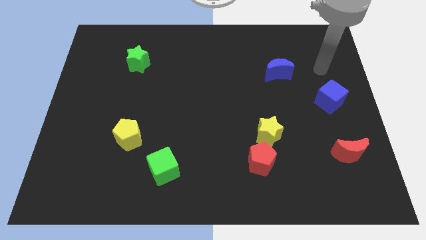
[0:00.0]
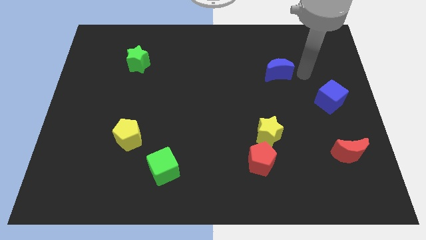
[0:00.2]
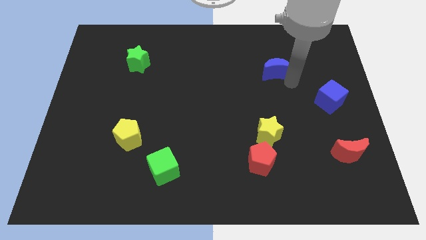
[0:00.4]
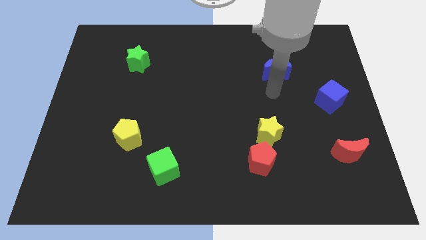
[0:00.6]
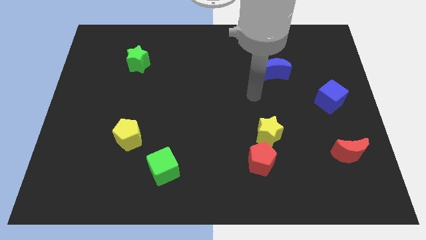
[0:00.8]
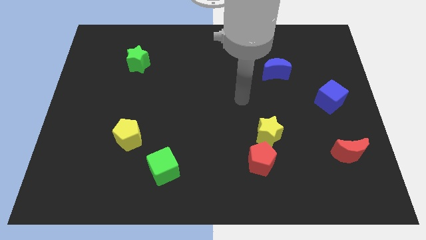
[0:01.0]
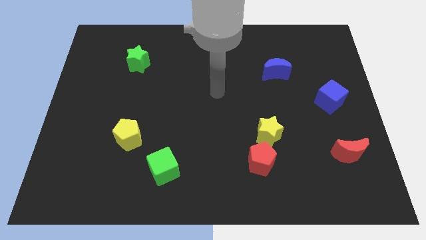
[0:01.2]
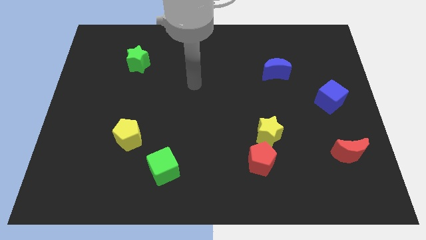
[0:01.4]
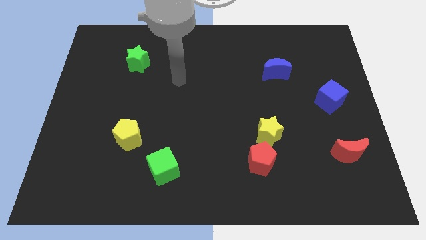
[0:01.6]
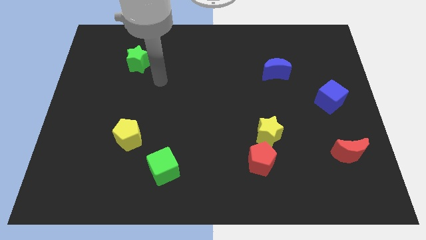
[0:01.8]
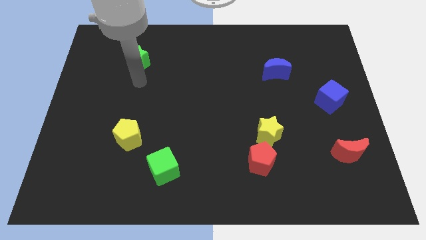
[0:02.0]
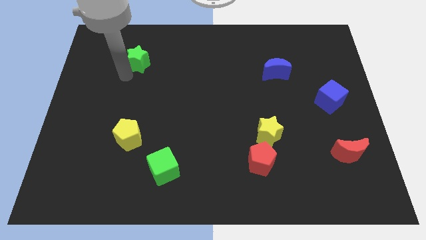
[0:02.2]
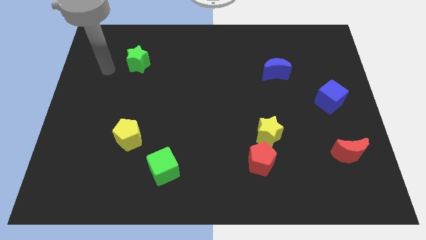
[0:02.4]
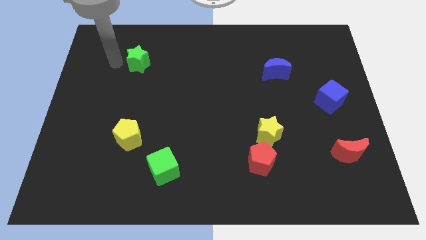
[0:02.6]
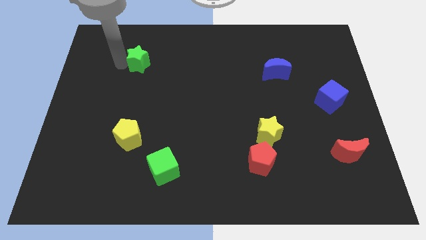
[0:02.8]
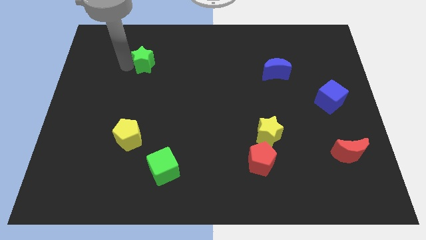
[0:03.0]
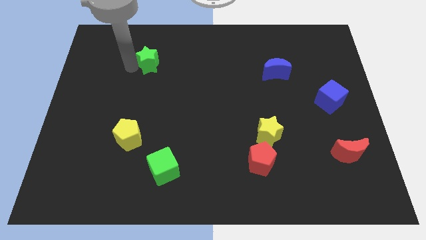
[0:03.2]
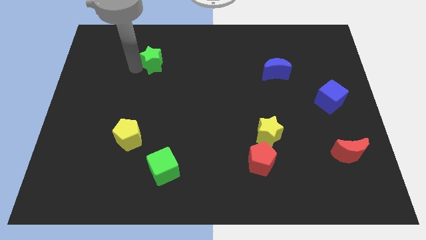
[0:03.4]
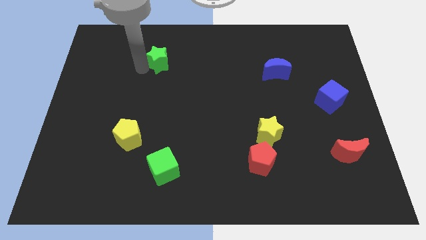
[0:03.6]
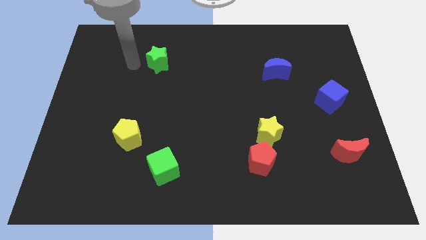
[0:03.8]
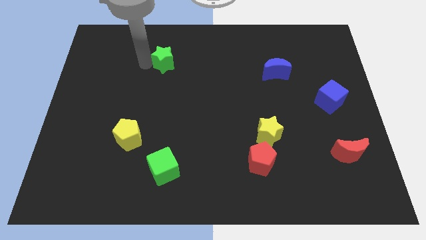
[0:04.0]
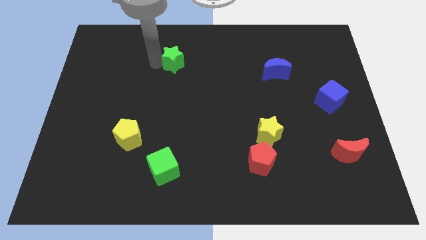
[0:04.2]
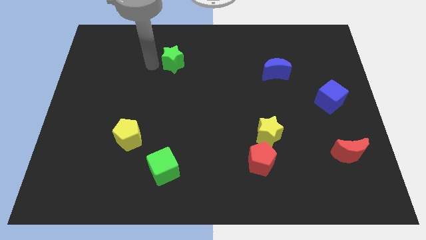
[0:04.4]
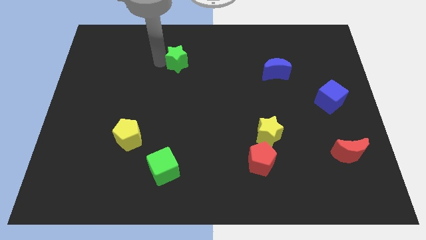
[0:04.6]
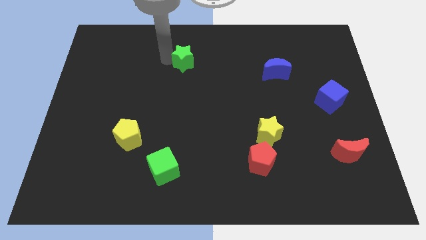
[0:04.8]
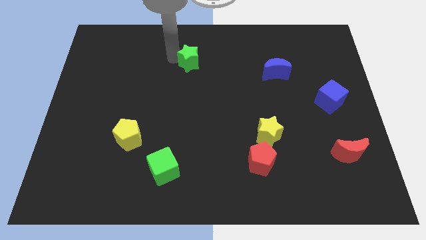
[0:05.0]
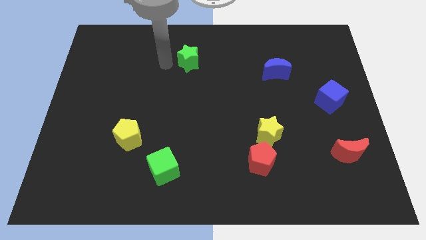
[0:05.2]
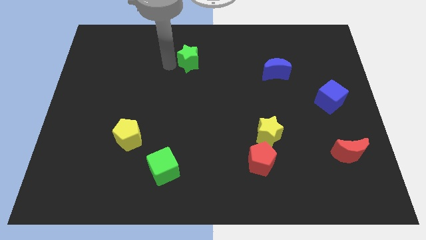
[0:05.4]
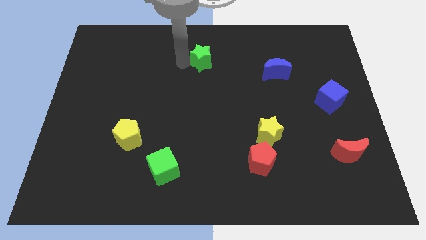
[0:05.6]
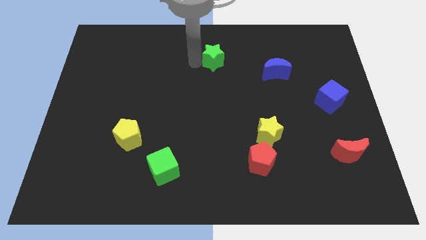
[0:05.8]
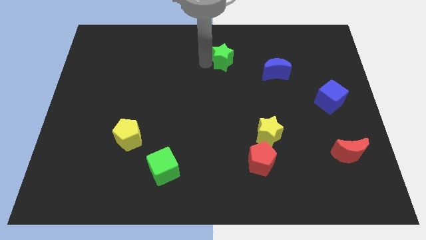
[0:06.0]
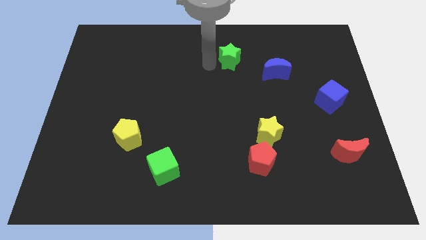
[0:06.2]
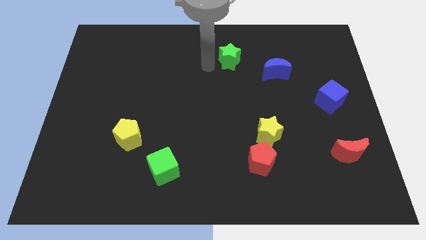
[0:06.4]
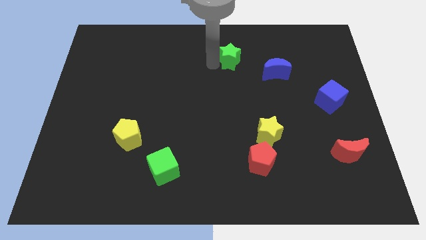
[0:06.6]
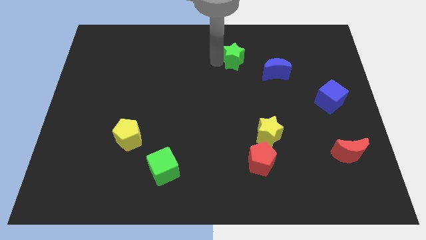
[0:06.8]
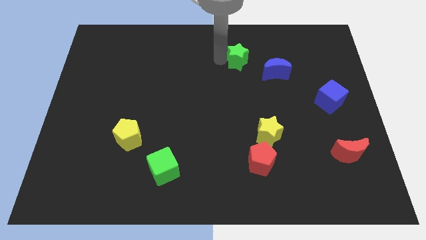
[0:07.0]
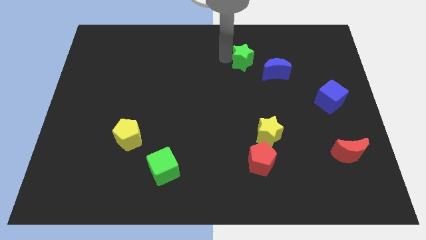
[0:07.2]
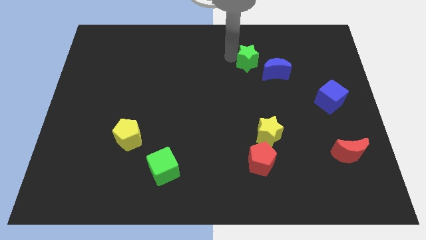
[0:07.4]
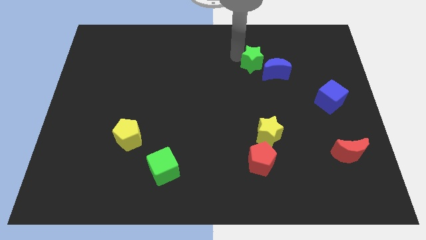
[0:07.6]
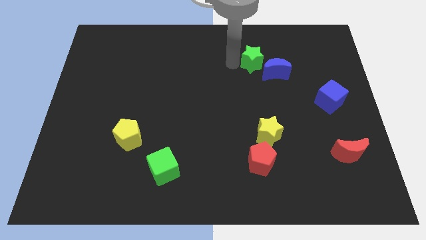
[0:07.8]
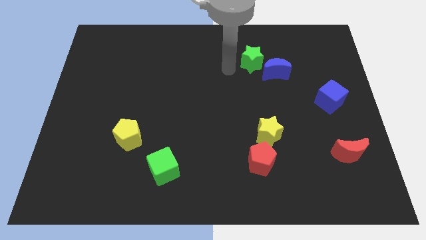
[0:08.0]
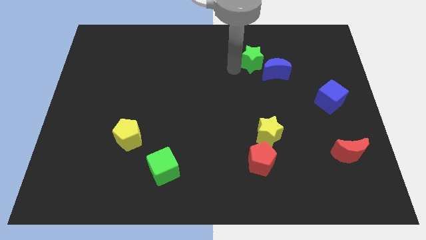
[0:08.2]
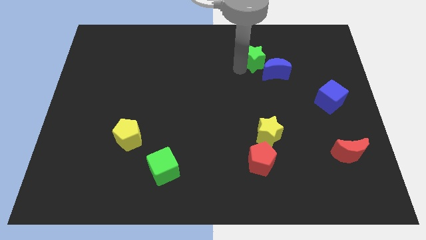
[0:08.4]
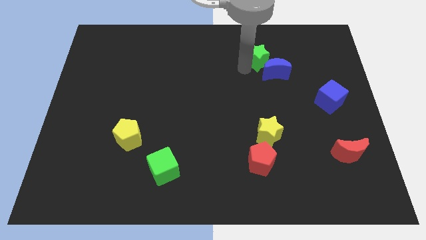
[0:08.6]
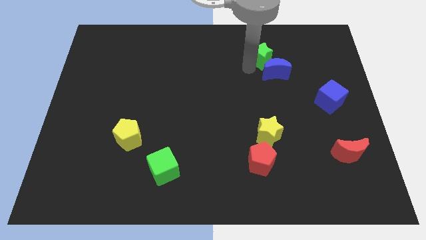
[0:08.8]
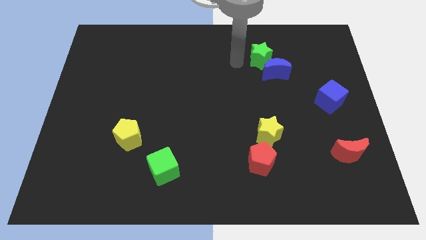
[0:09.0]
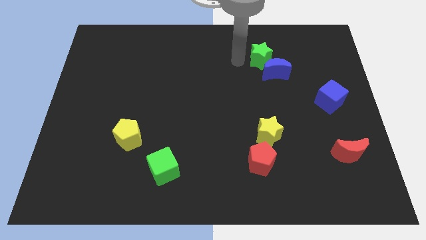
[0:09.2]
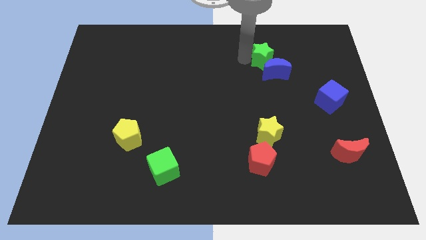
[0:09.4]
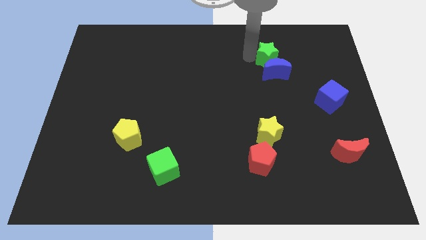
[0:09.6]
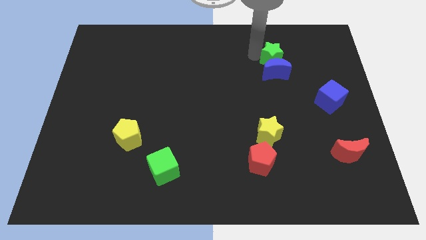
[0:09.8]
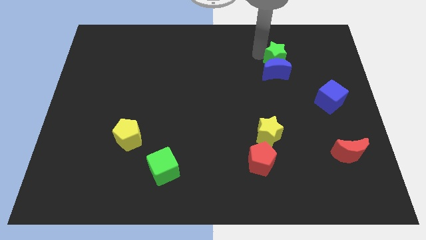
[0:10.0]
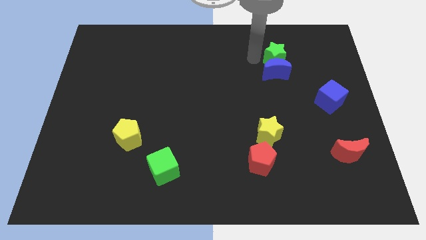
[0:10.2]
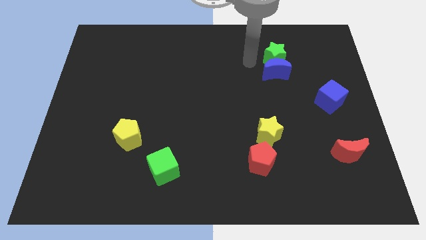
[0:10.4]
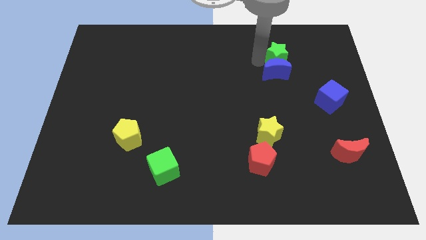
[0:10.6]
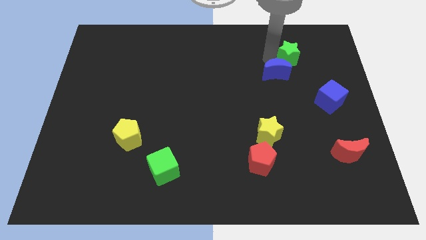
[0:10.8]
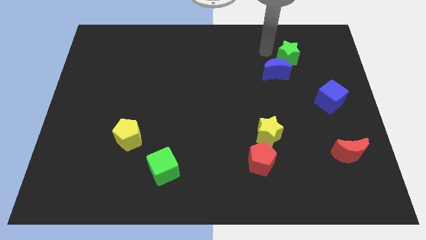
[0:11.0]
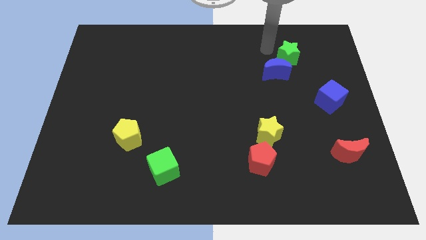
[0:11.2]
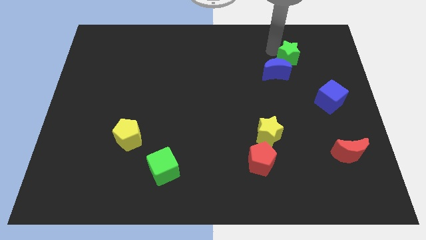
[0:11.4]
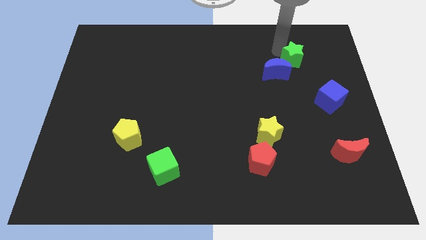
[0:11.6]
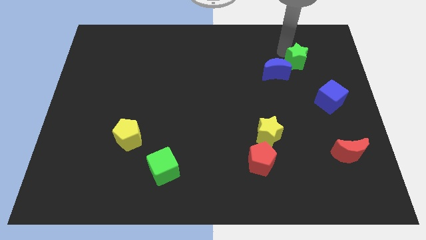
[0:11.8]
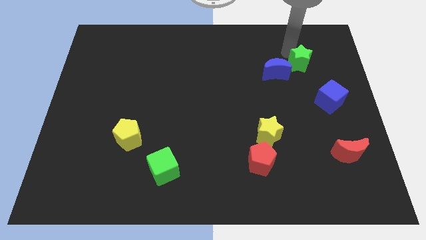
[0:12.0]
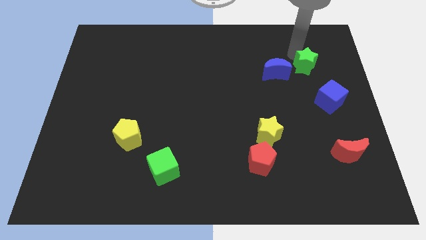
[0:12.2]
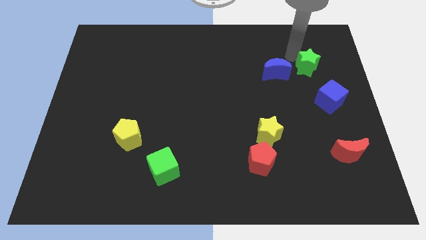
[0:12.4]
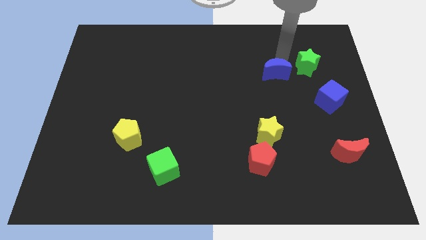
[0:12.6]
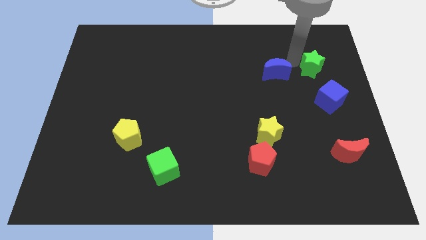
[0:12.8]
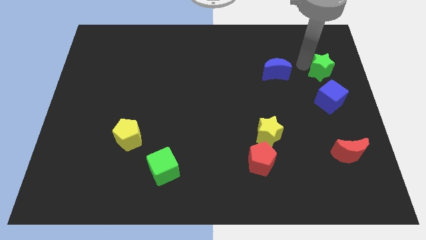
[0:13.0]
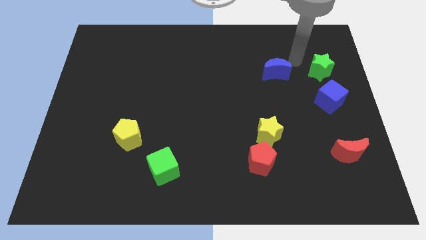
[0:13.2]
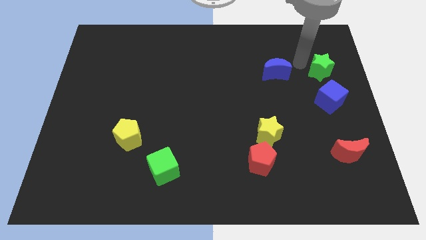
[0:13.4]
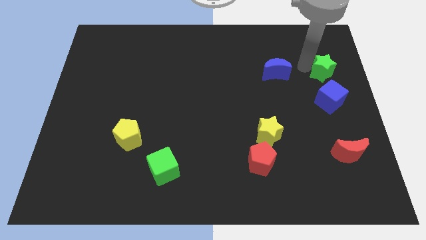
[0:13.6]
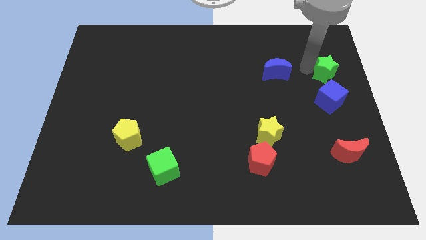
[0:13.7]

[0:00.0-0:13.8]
push the green star to the right side

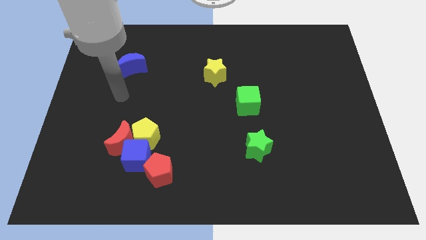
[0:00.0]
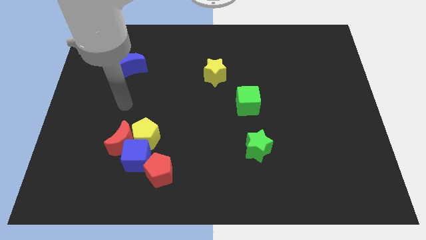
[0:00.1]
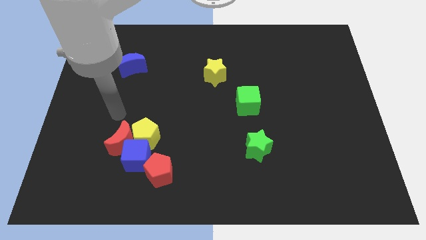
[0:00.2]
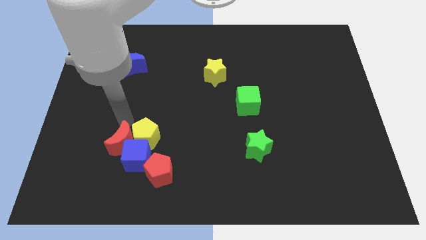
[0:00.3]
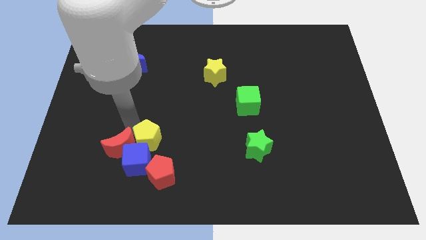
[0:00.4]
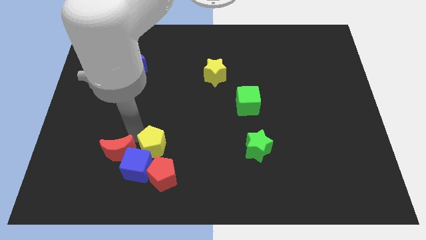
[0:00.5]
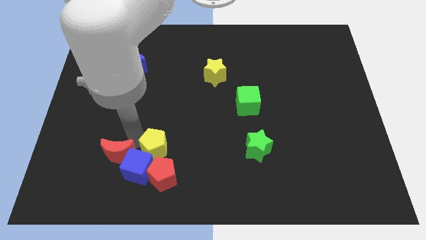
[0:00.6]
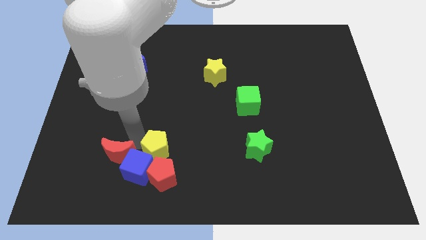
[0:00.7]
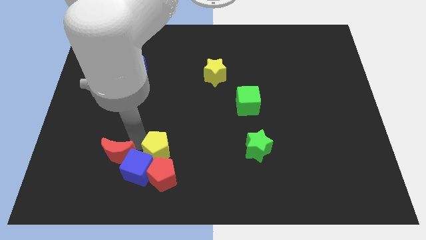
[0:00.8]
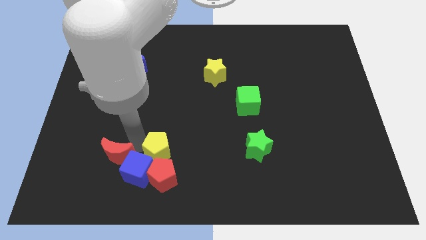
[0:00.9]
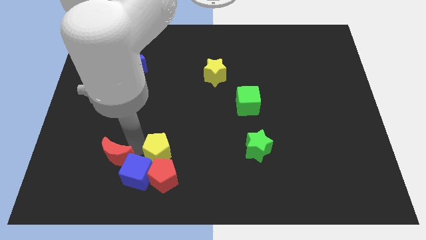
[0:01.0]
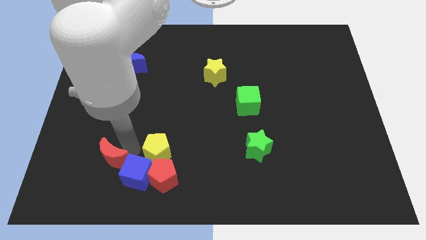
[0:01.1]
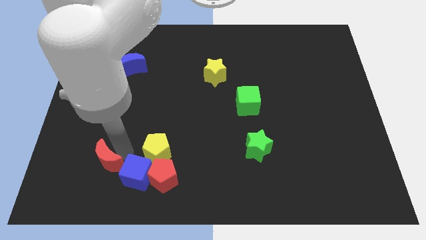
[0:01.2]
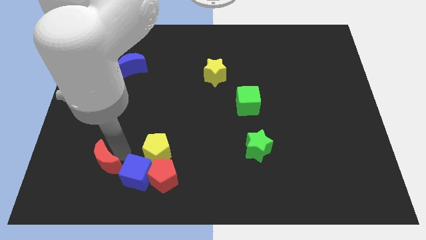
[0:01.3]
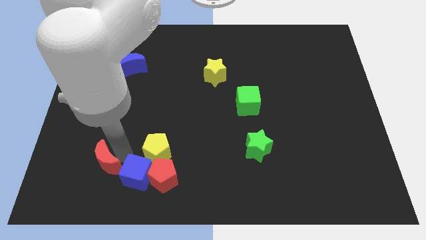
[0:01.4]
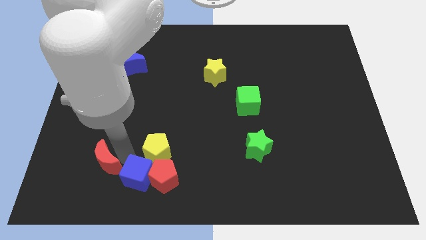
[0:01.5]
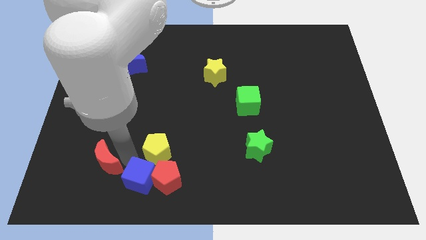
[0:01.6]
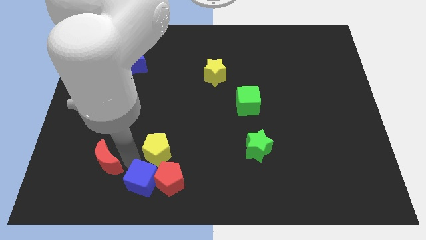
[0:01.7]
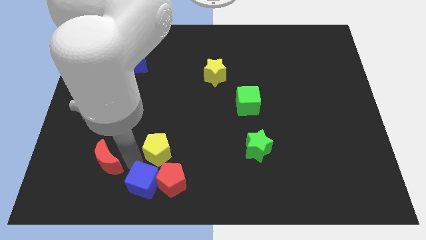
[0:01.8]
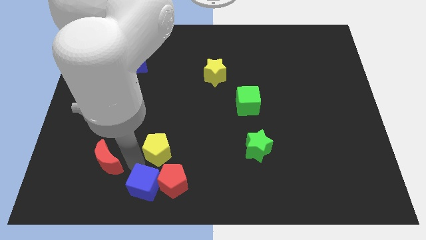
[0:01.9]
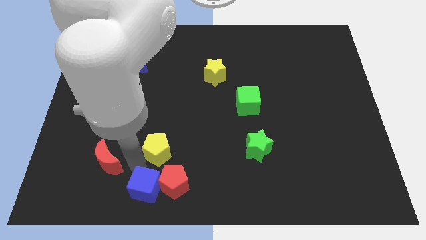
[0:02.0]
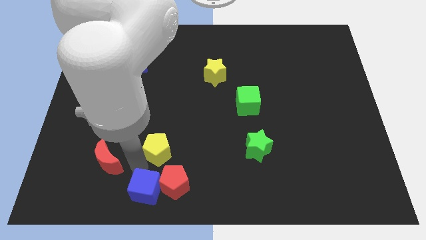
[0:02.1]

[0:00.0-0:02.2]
put the blue cube to the bottom side
